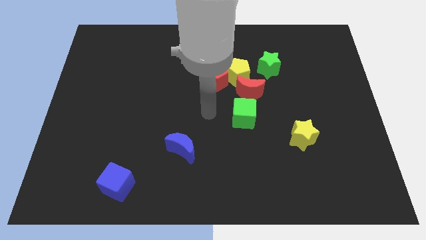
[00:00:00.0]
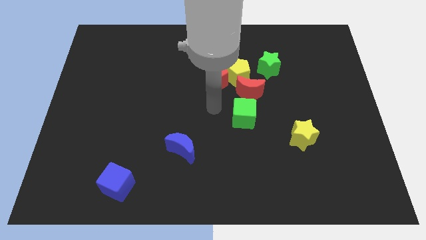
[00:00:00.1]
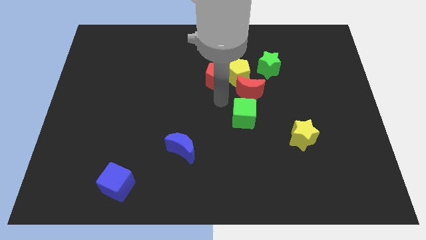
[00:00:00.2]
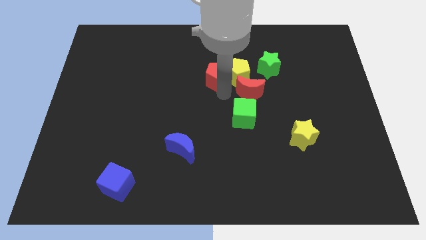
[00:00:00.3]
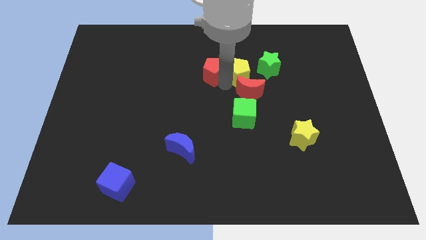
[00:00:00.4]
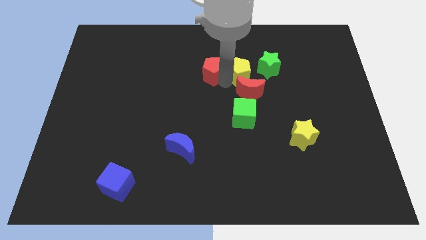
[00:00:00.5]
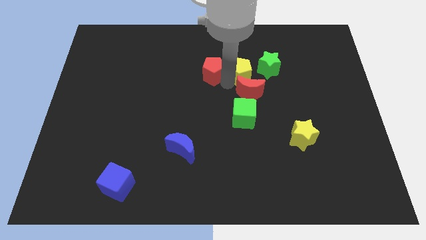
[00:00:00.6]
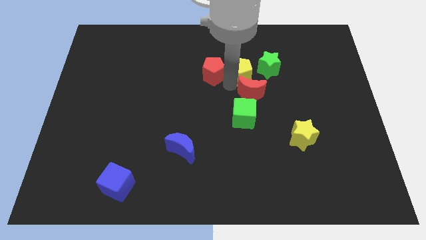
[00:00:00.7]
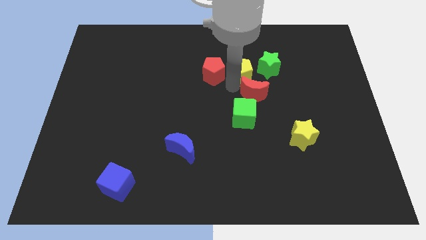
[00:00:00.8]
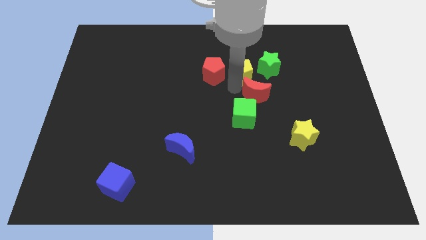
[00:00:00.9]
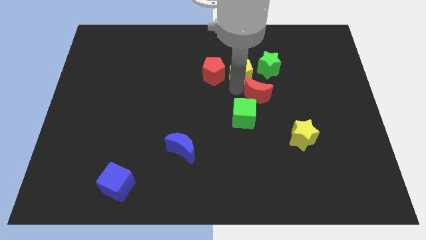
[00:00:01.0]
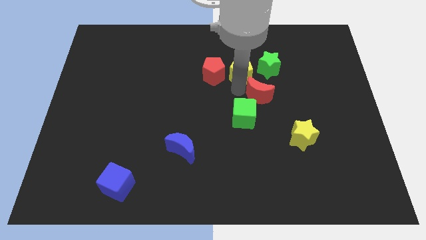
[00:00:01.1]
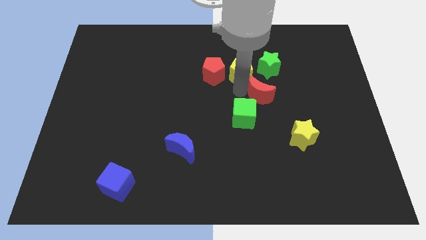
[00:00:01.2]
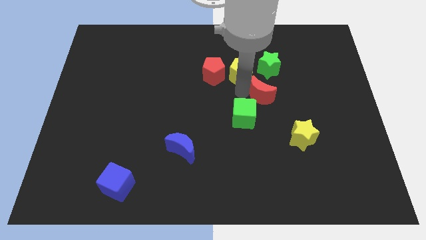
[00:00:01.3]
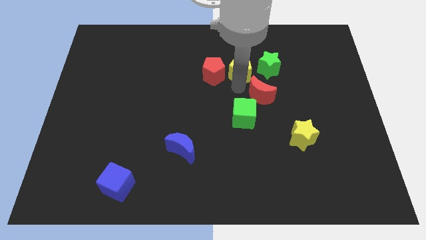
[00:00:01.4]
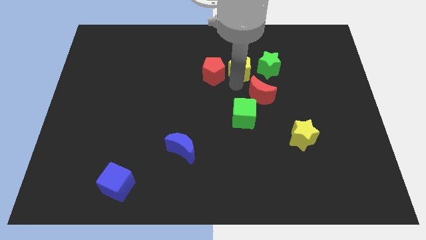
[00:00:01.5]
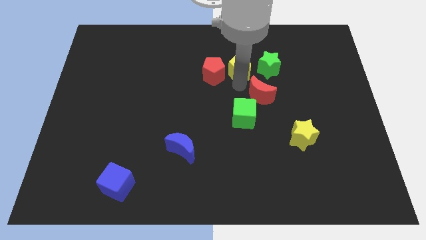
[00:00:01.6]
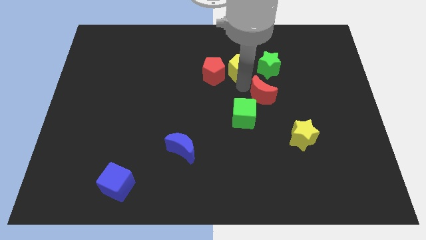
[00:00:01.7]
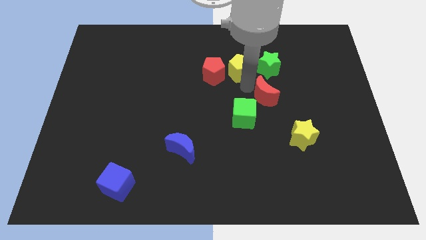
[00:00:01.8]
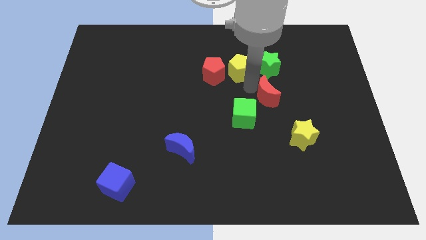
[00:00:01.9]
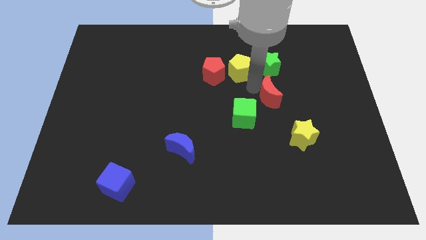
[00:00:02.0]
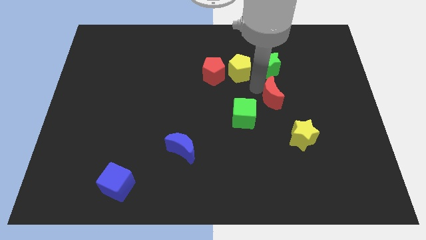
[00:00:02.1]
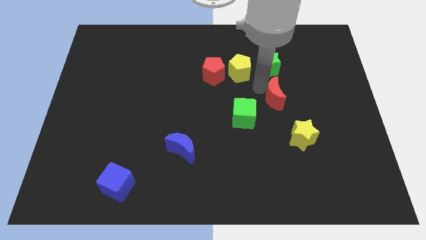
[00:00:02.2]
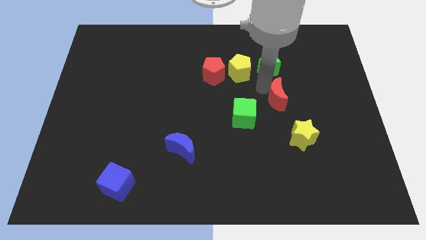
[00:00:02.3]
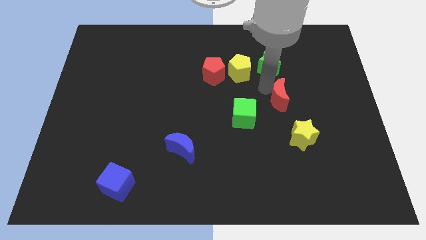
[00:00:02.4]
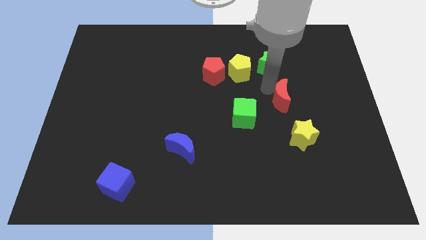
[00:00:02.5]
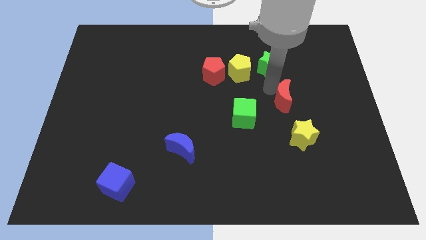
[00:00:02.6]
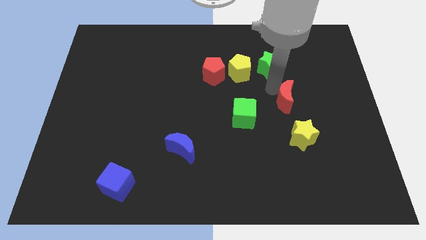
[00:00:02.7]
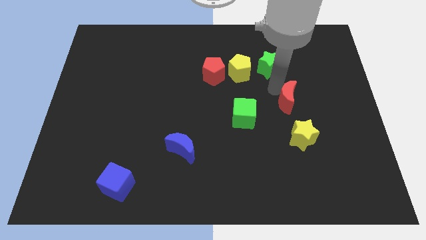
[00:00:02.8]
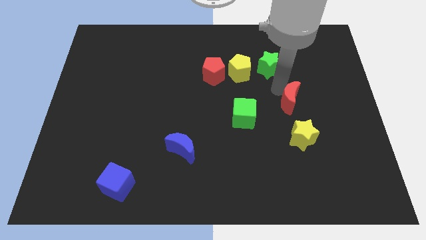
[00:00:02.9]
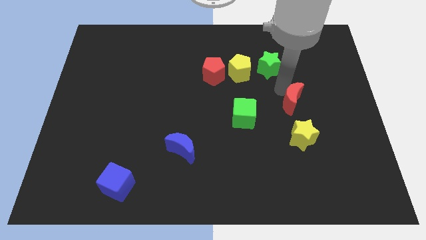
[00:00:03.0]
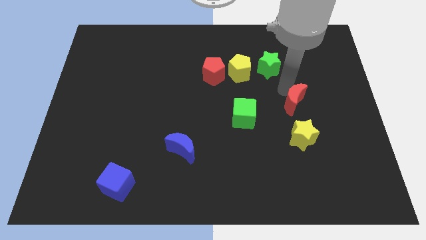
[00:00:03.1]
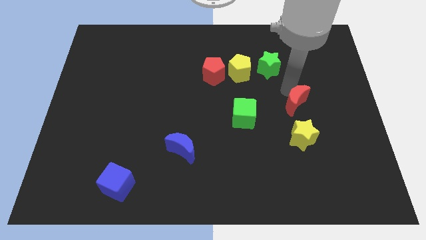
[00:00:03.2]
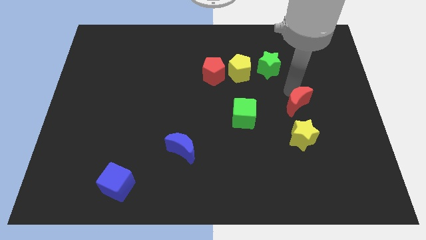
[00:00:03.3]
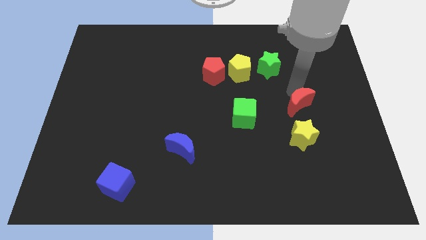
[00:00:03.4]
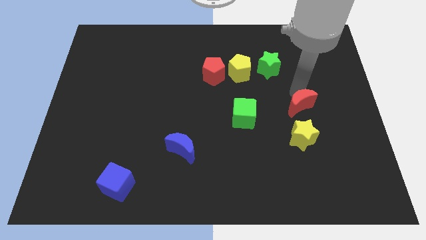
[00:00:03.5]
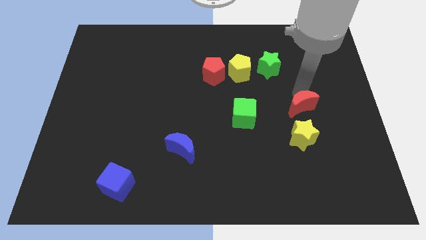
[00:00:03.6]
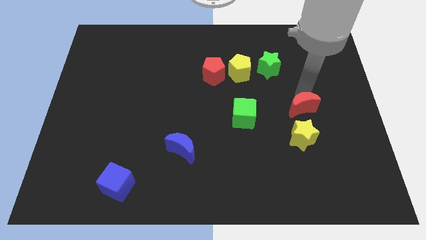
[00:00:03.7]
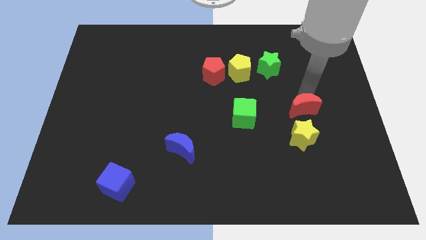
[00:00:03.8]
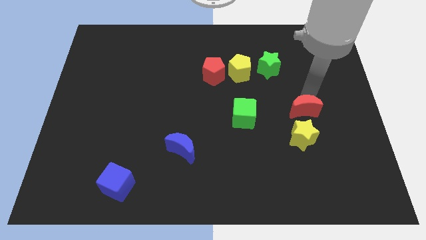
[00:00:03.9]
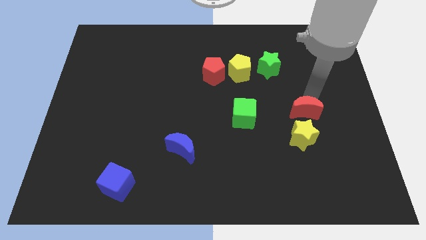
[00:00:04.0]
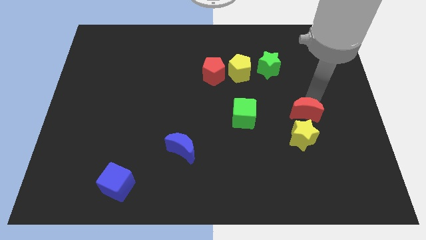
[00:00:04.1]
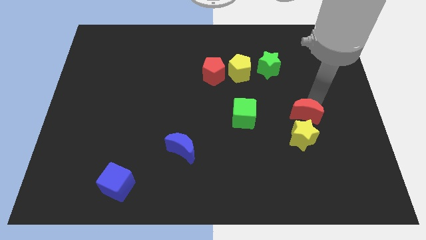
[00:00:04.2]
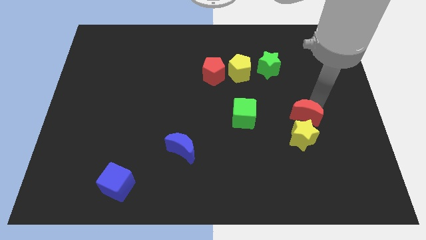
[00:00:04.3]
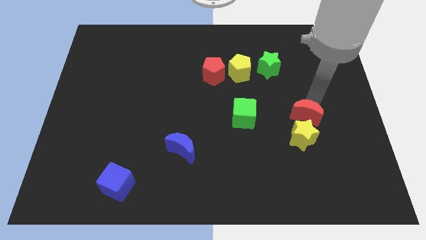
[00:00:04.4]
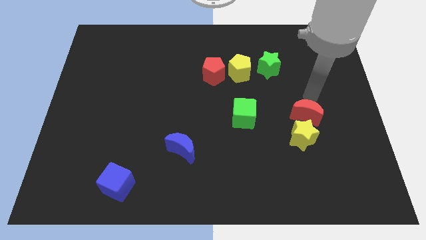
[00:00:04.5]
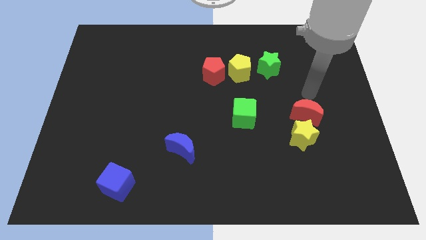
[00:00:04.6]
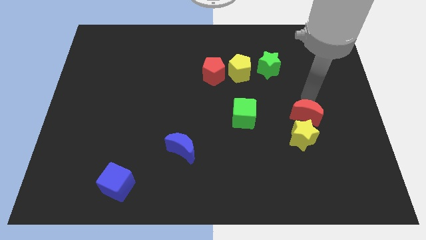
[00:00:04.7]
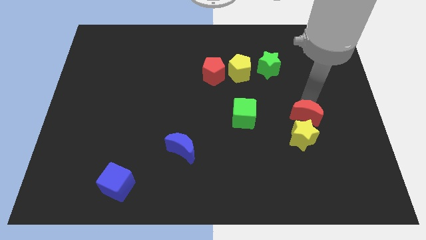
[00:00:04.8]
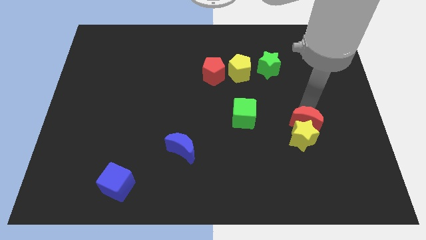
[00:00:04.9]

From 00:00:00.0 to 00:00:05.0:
put the red moon close to the yellow star

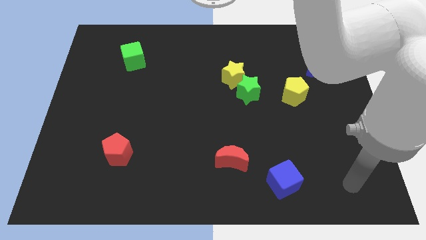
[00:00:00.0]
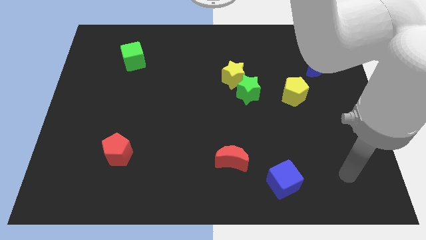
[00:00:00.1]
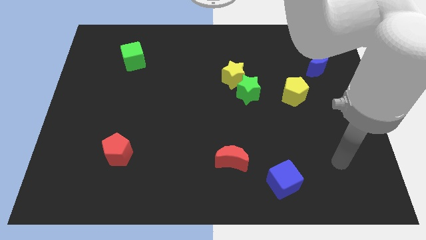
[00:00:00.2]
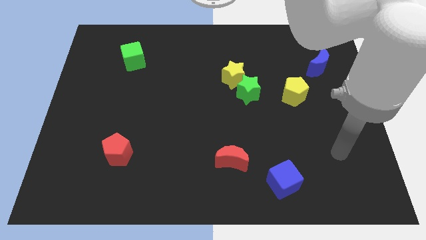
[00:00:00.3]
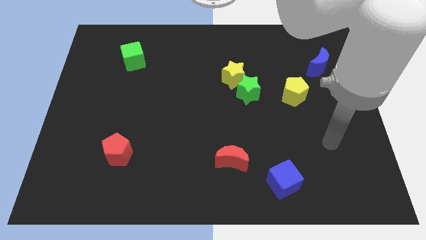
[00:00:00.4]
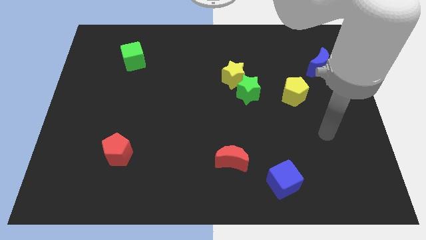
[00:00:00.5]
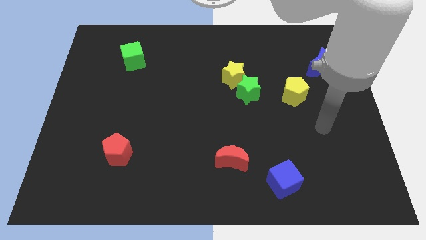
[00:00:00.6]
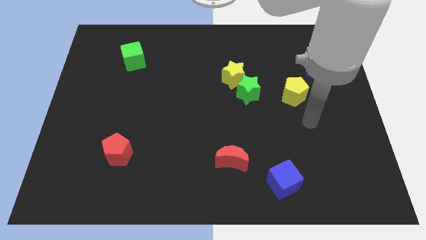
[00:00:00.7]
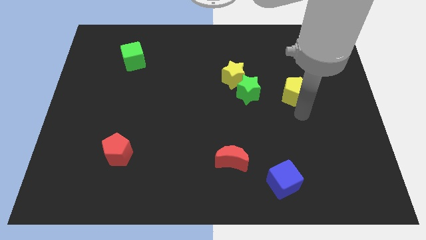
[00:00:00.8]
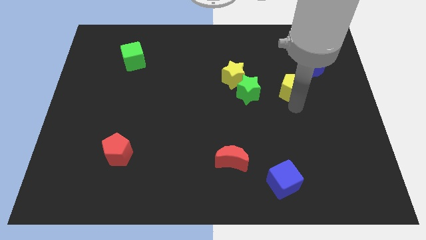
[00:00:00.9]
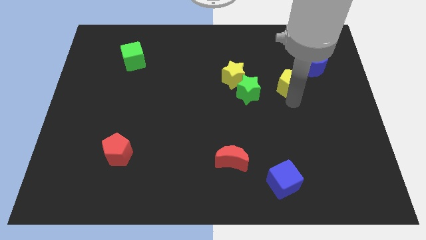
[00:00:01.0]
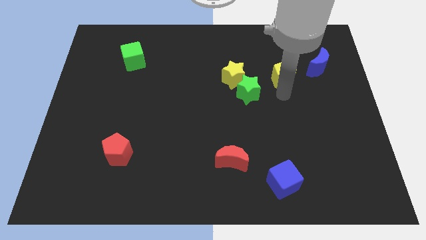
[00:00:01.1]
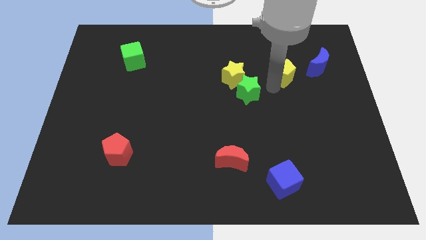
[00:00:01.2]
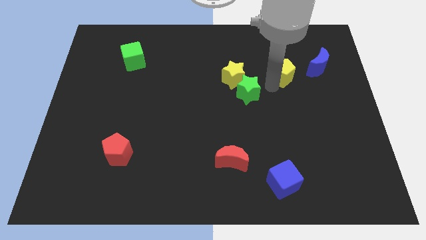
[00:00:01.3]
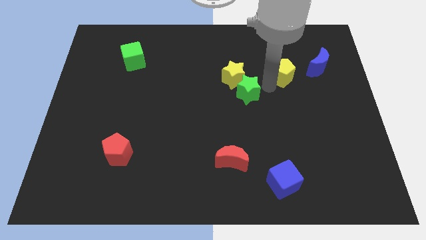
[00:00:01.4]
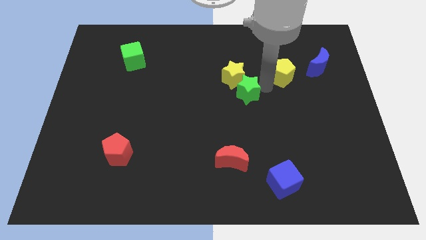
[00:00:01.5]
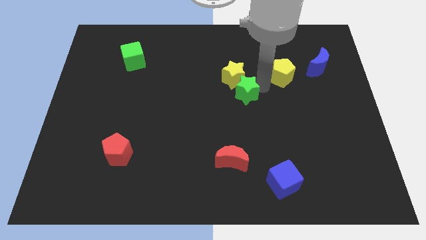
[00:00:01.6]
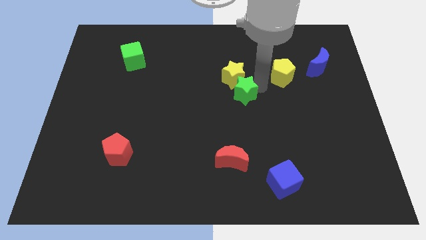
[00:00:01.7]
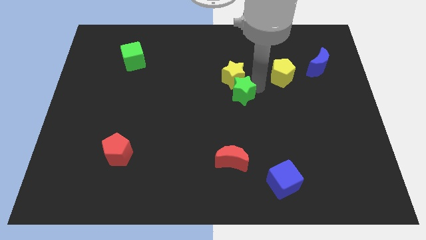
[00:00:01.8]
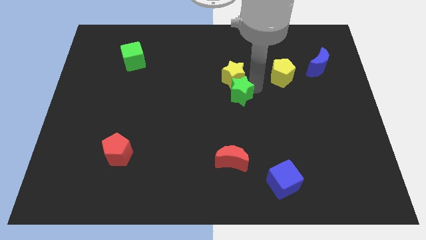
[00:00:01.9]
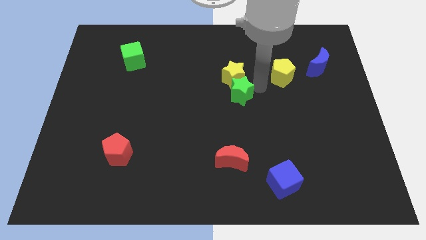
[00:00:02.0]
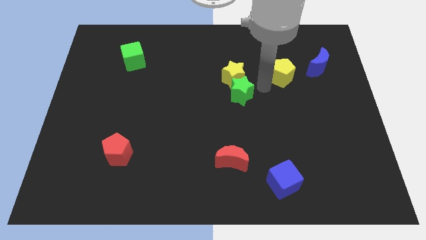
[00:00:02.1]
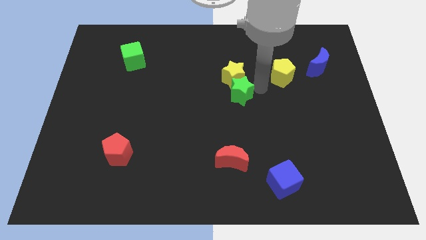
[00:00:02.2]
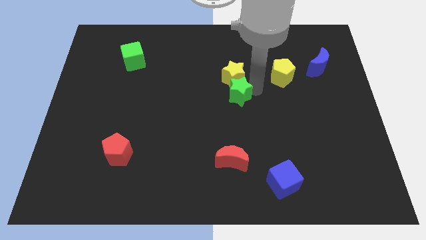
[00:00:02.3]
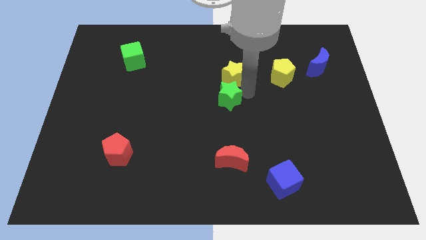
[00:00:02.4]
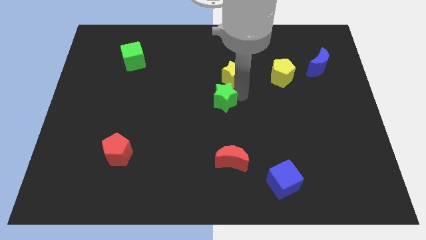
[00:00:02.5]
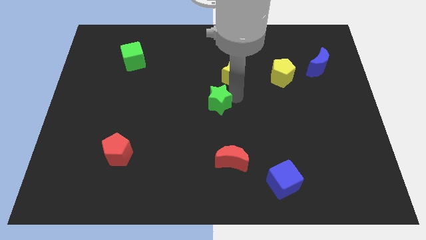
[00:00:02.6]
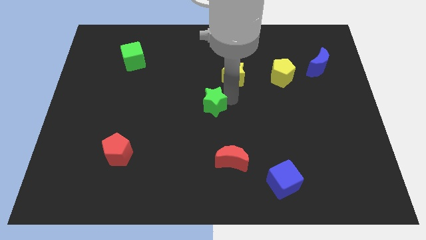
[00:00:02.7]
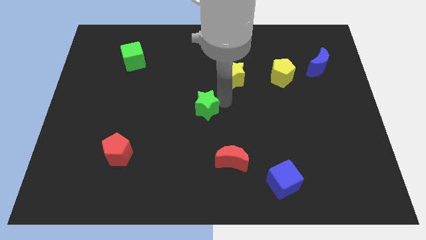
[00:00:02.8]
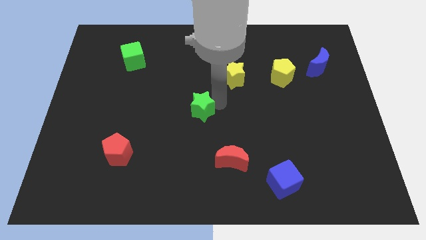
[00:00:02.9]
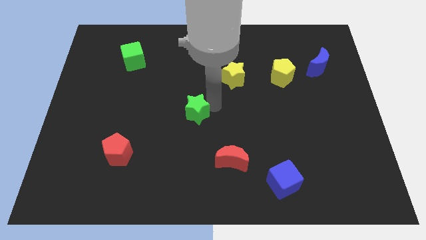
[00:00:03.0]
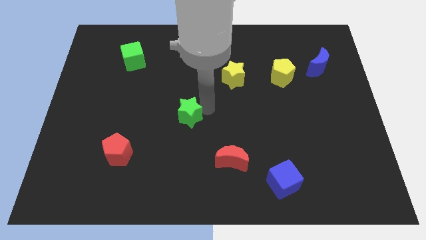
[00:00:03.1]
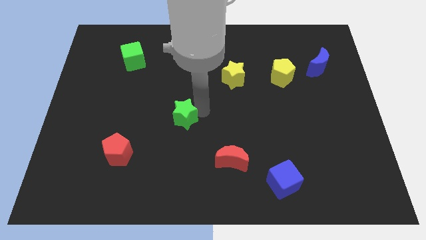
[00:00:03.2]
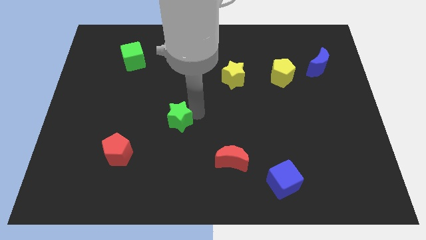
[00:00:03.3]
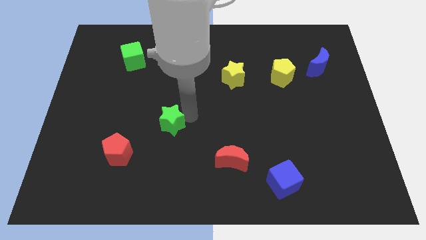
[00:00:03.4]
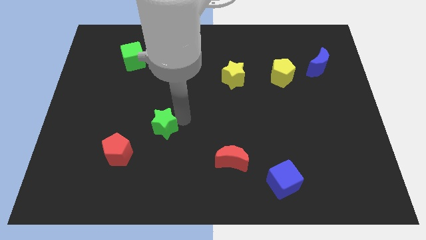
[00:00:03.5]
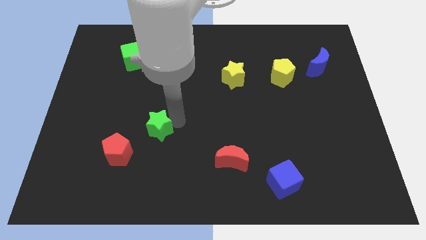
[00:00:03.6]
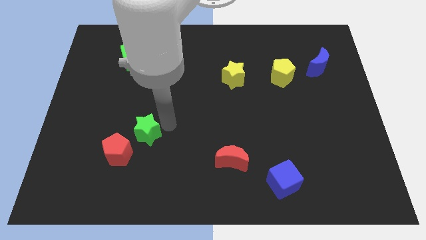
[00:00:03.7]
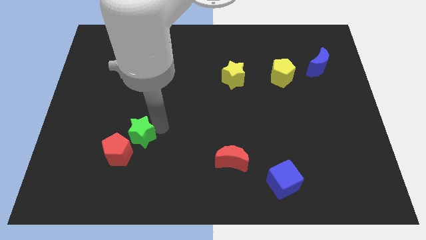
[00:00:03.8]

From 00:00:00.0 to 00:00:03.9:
move the green star close to the red pentagon
